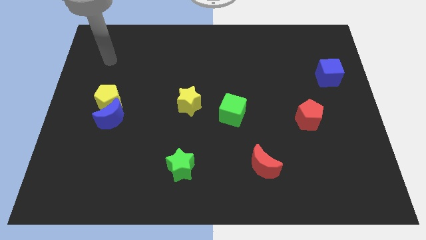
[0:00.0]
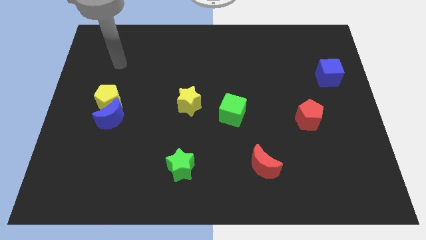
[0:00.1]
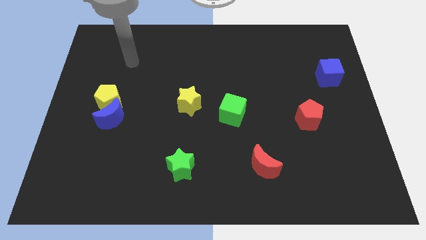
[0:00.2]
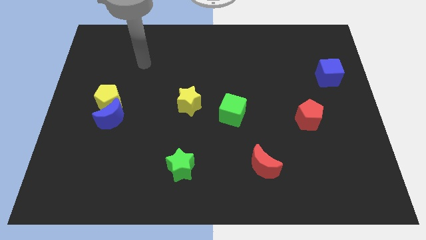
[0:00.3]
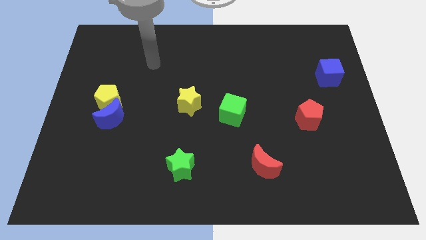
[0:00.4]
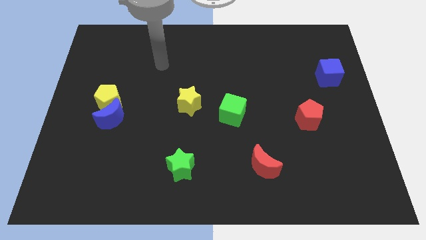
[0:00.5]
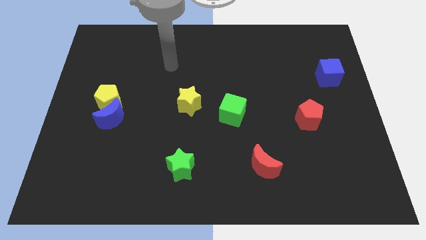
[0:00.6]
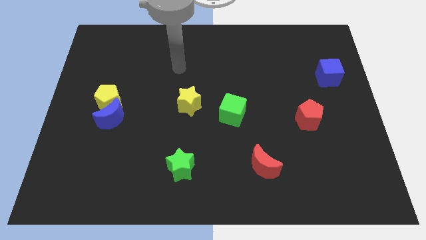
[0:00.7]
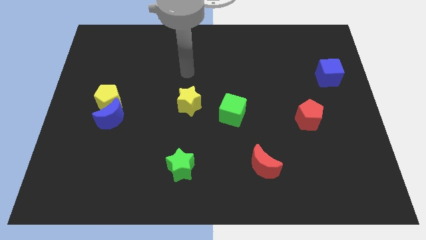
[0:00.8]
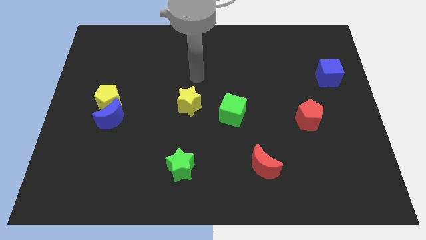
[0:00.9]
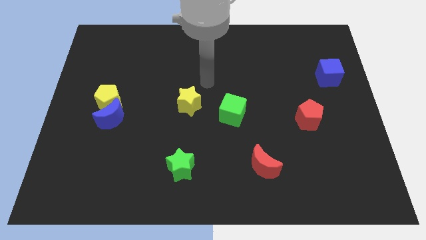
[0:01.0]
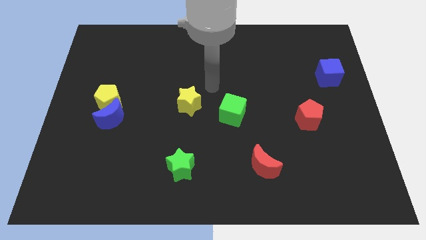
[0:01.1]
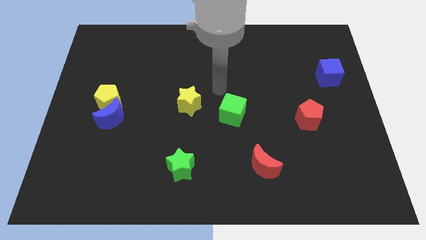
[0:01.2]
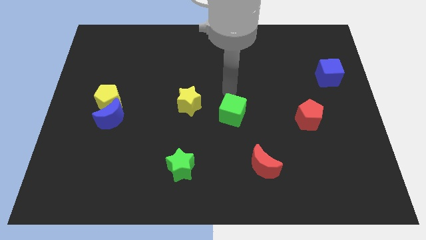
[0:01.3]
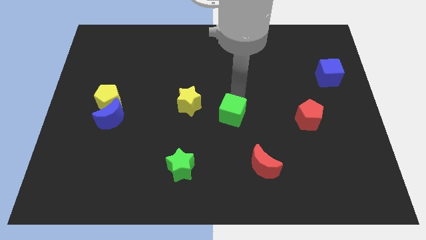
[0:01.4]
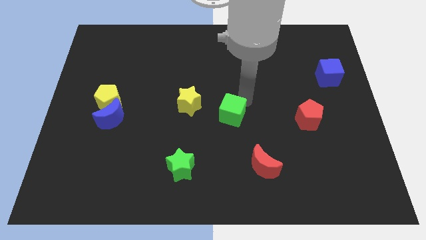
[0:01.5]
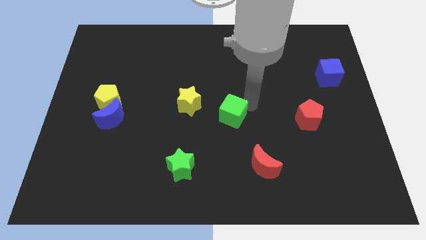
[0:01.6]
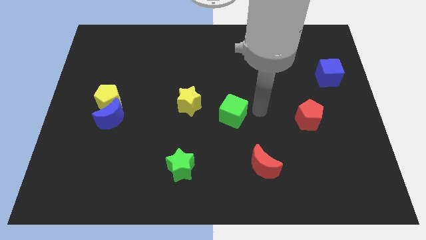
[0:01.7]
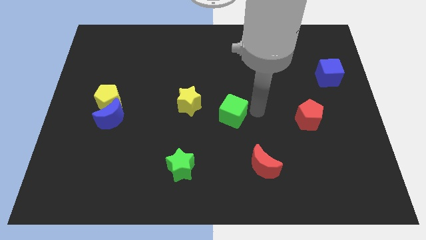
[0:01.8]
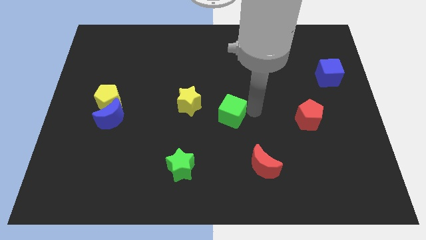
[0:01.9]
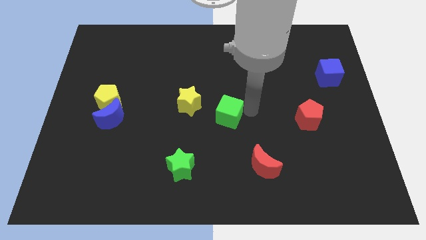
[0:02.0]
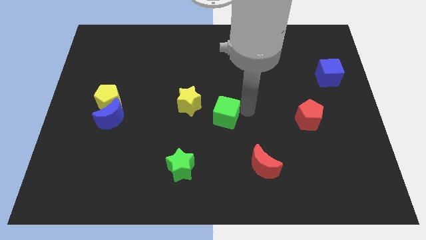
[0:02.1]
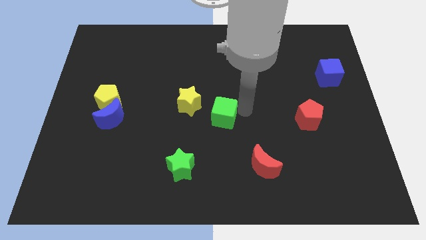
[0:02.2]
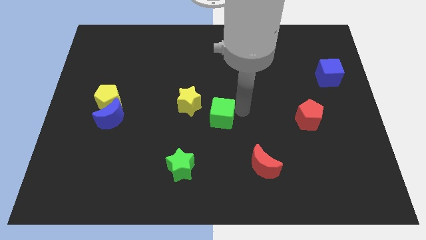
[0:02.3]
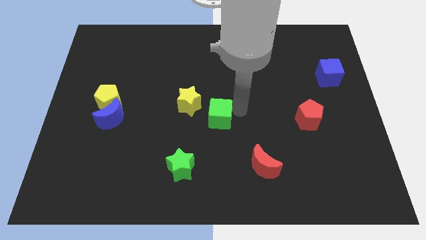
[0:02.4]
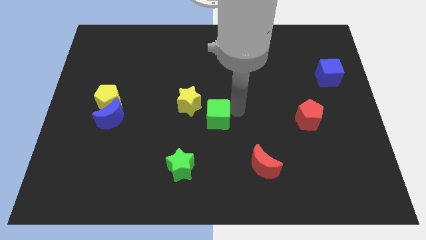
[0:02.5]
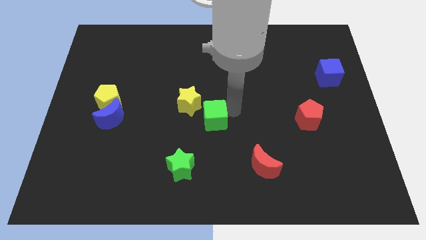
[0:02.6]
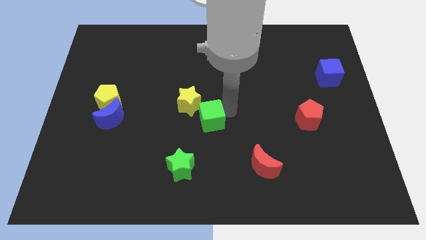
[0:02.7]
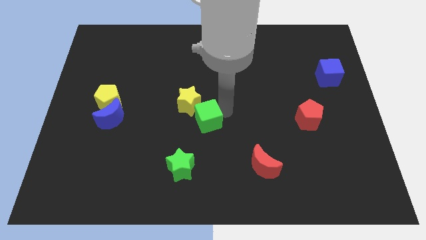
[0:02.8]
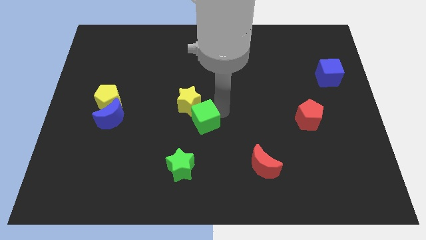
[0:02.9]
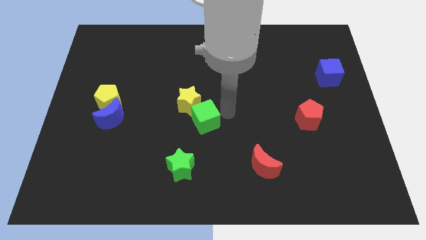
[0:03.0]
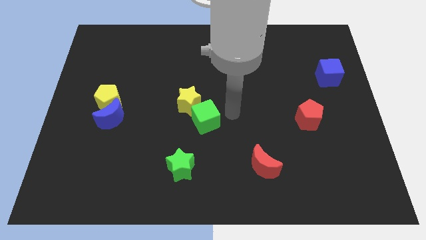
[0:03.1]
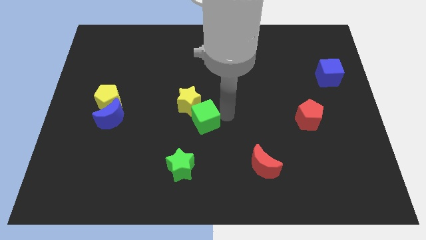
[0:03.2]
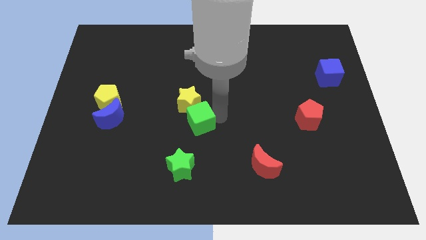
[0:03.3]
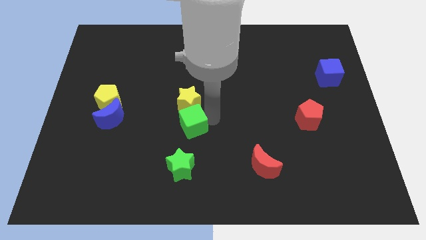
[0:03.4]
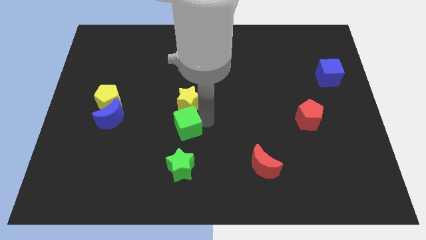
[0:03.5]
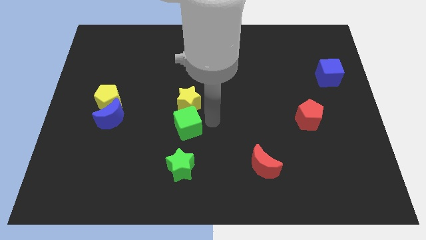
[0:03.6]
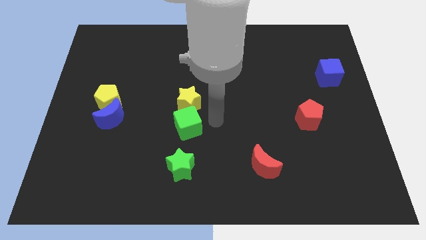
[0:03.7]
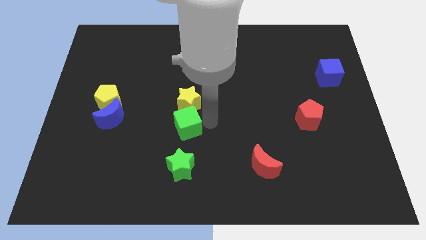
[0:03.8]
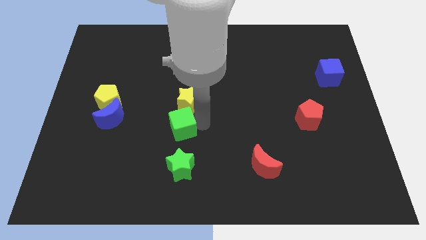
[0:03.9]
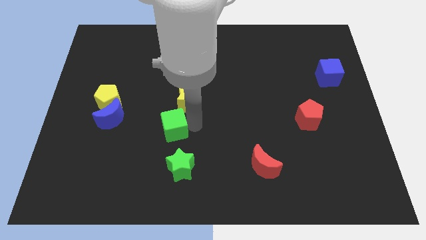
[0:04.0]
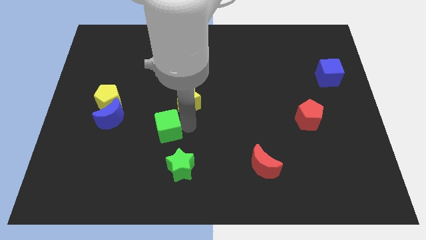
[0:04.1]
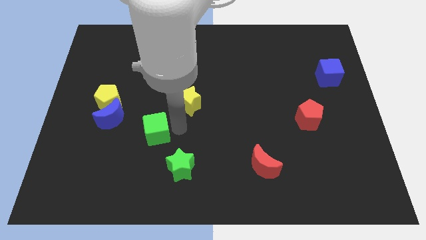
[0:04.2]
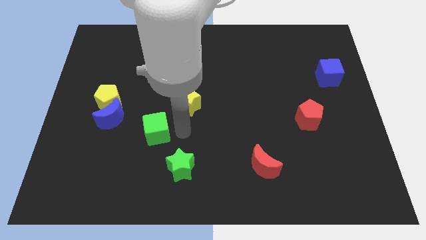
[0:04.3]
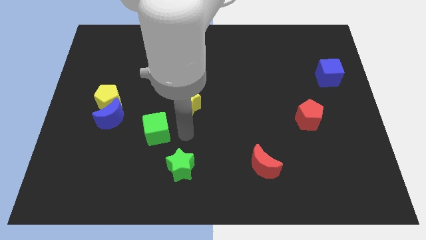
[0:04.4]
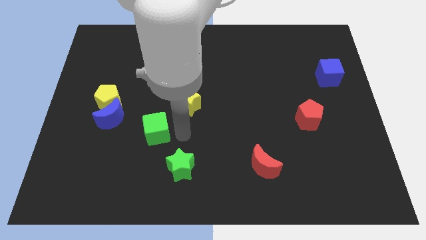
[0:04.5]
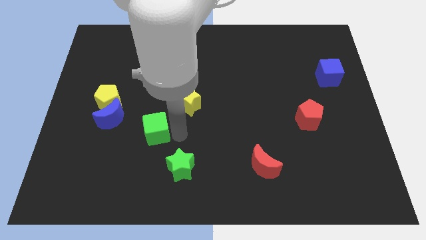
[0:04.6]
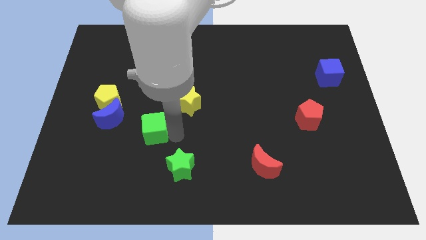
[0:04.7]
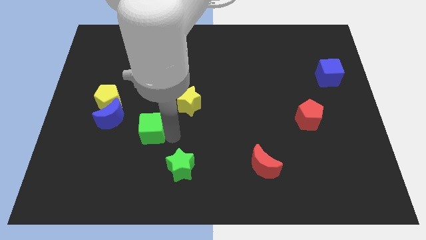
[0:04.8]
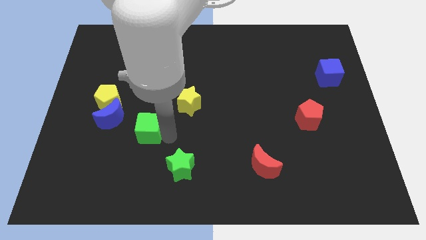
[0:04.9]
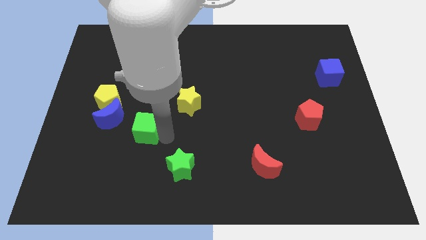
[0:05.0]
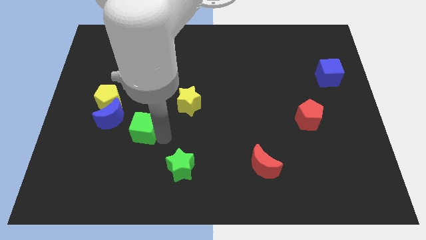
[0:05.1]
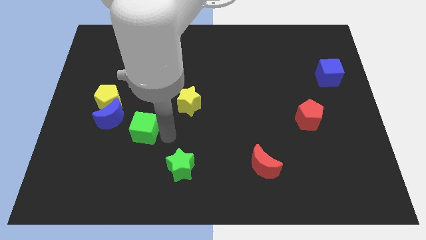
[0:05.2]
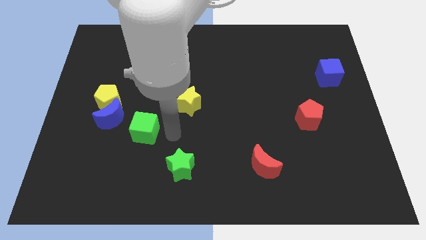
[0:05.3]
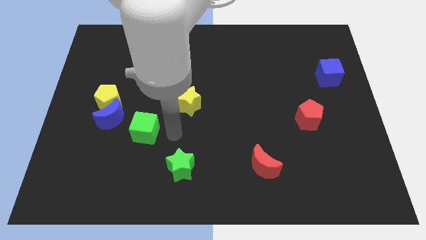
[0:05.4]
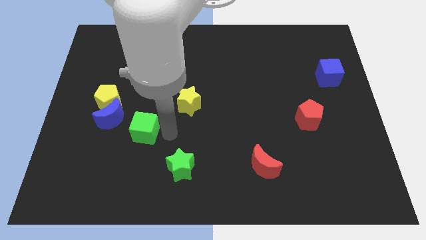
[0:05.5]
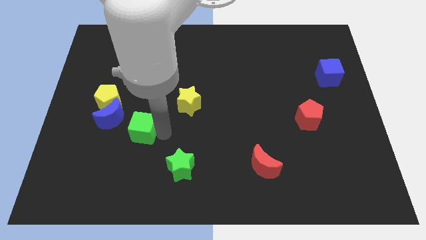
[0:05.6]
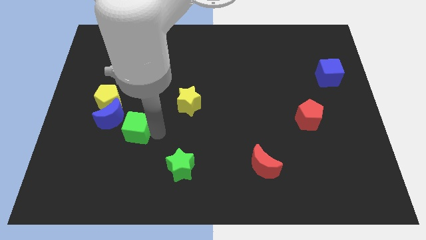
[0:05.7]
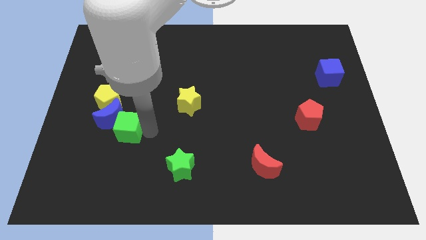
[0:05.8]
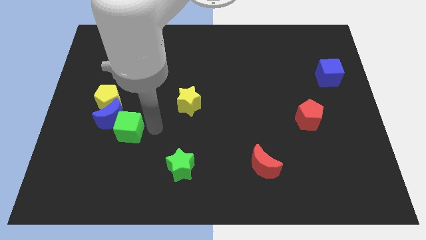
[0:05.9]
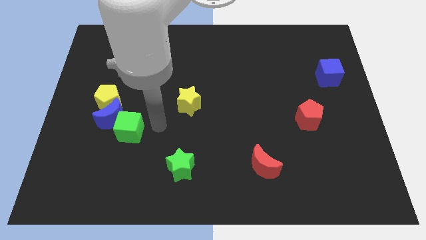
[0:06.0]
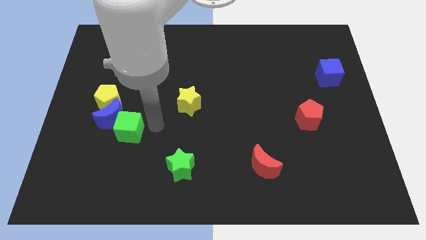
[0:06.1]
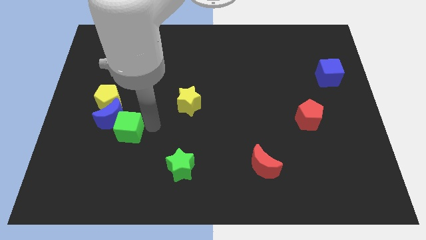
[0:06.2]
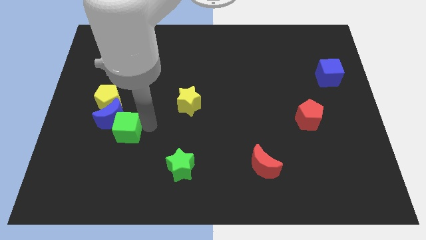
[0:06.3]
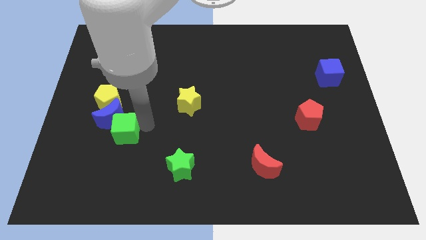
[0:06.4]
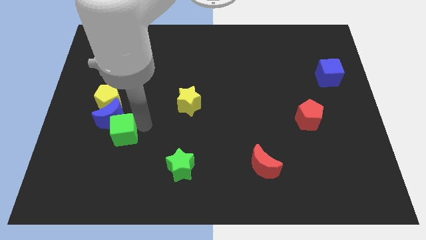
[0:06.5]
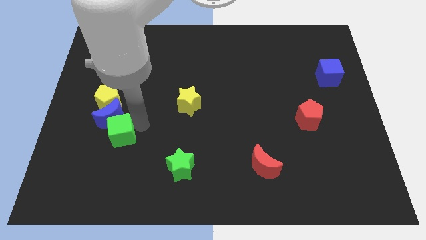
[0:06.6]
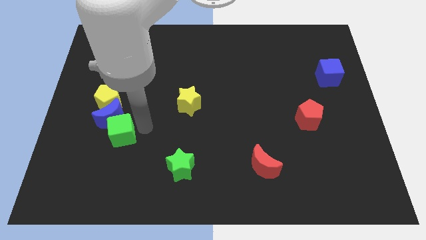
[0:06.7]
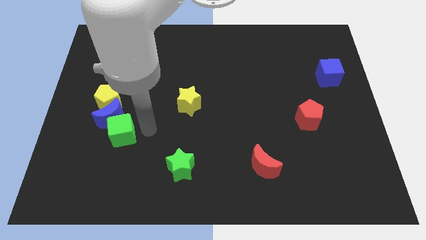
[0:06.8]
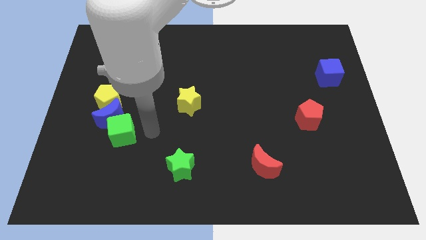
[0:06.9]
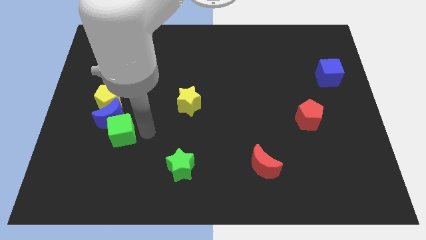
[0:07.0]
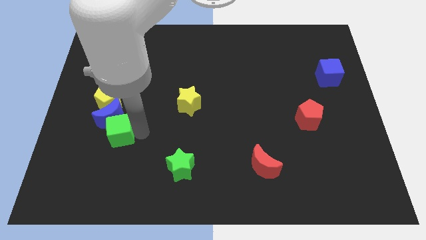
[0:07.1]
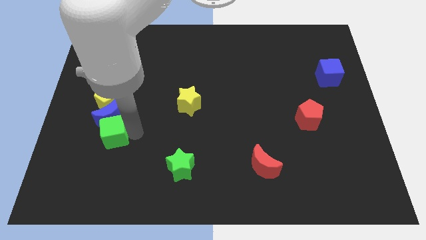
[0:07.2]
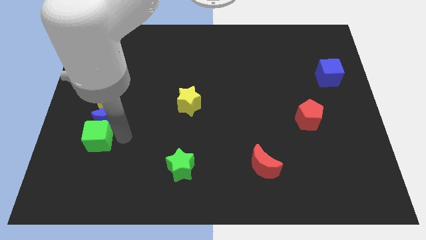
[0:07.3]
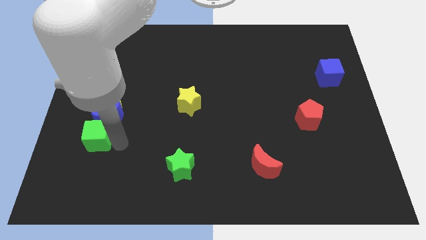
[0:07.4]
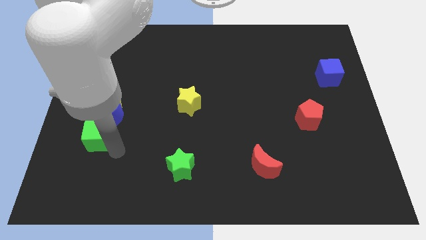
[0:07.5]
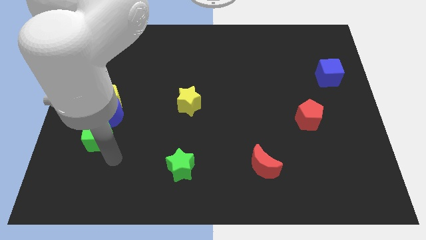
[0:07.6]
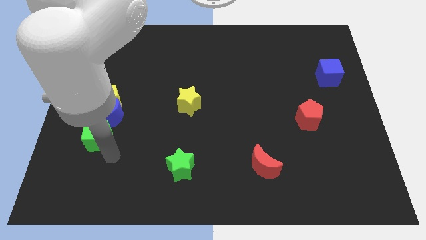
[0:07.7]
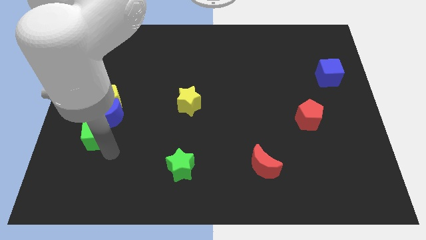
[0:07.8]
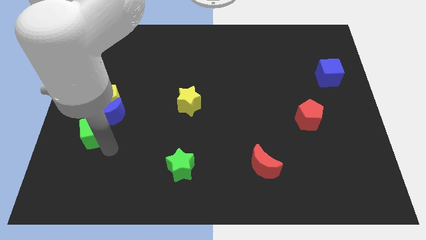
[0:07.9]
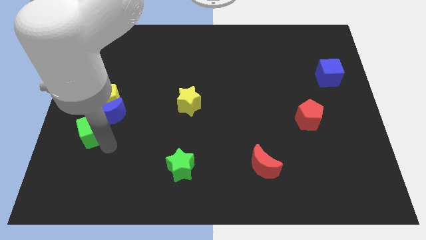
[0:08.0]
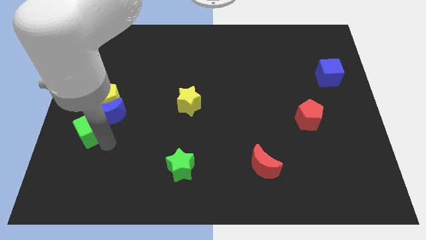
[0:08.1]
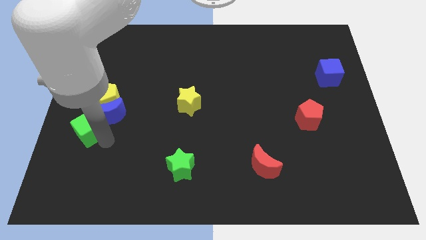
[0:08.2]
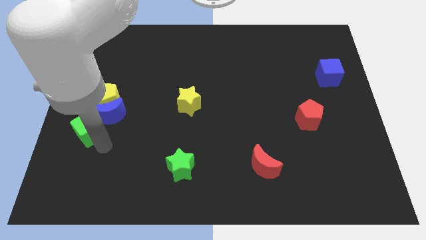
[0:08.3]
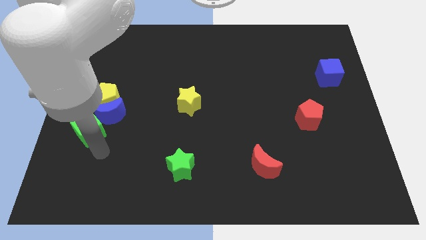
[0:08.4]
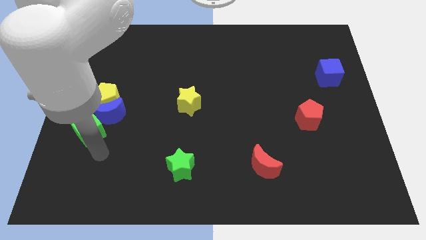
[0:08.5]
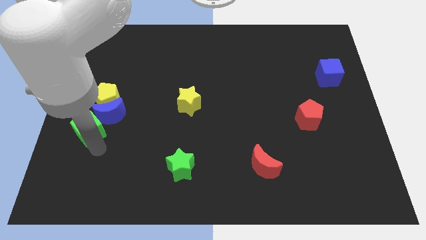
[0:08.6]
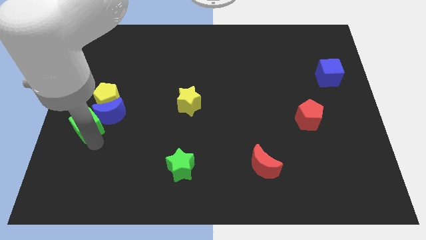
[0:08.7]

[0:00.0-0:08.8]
slide the green cube to the center left
